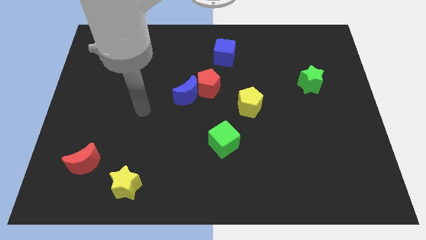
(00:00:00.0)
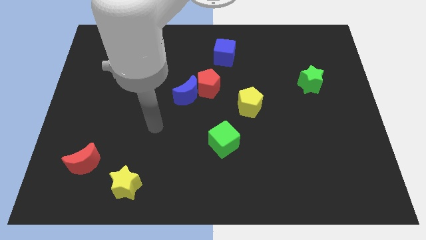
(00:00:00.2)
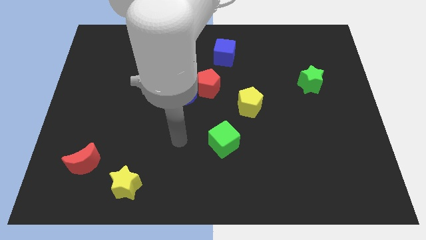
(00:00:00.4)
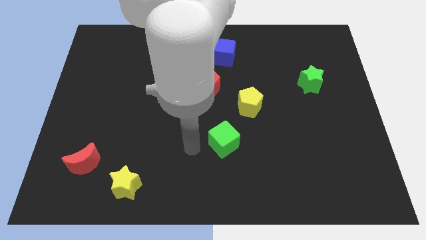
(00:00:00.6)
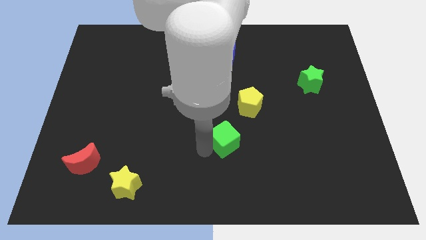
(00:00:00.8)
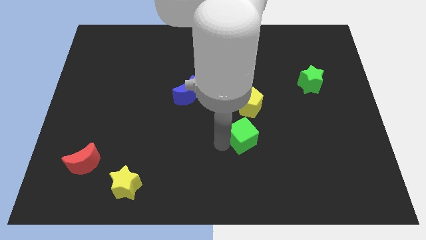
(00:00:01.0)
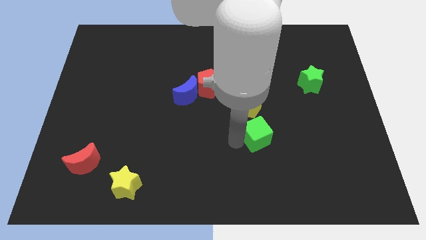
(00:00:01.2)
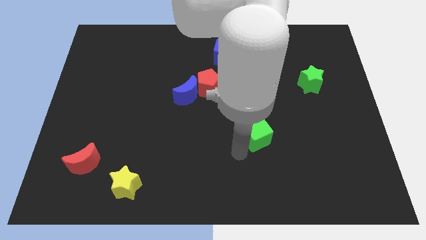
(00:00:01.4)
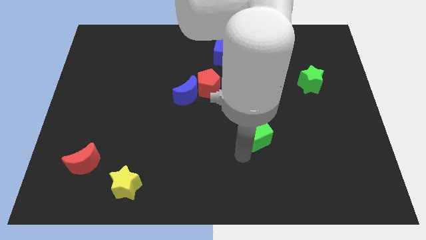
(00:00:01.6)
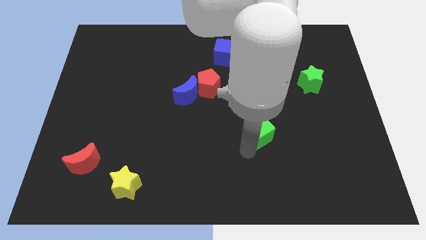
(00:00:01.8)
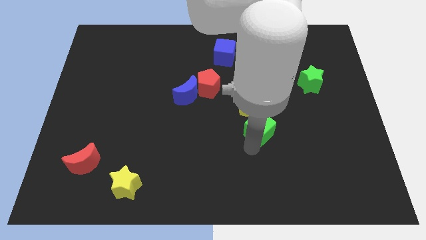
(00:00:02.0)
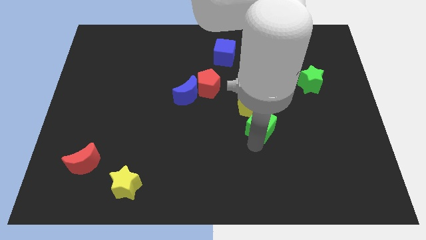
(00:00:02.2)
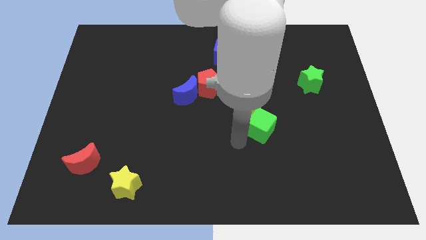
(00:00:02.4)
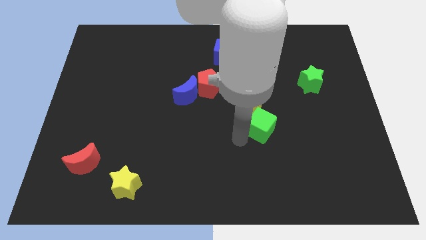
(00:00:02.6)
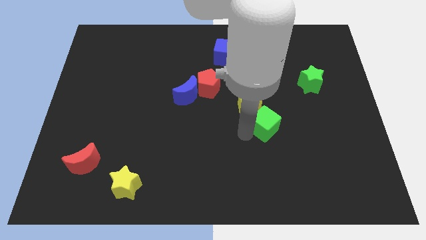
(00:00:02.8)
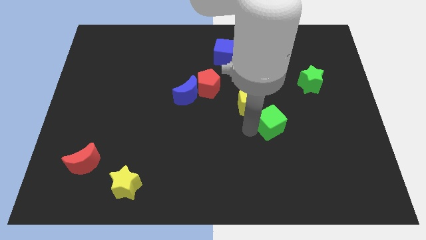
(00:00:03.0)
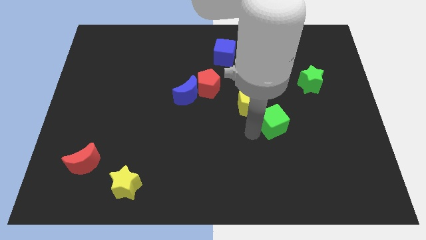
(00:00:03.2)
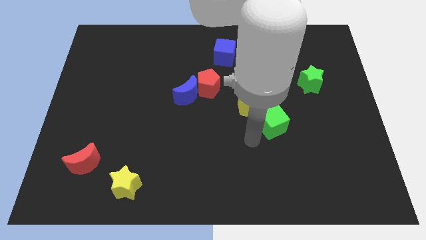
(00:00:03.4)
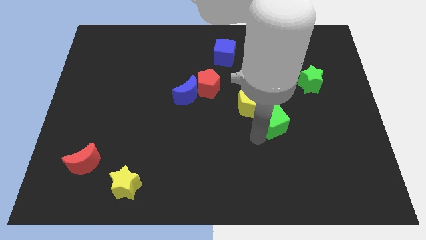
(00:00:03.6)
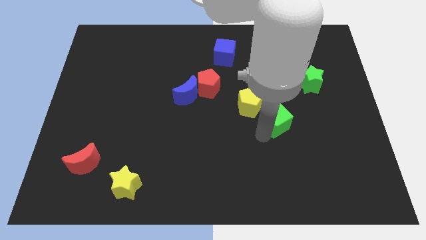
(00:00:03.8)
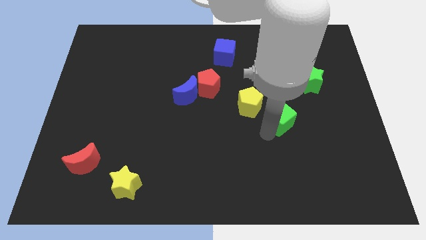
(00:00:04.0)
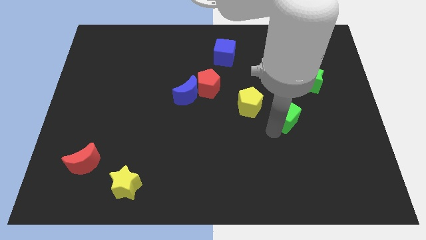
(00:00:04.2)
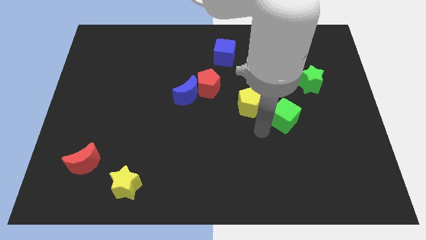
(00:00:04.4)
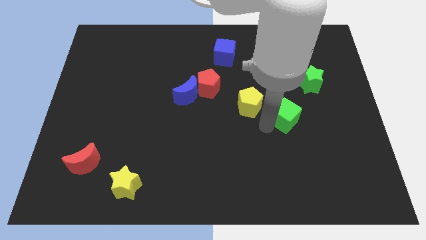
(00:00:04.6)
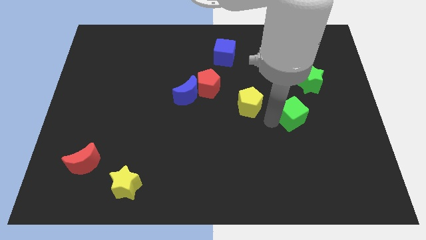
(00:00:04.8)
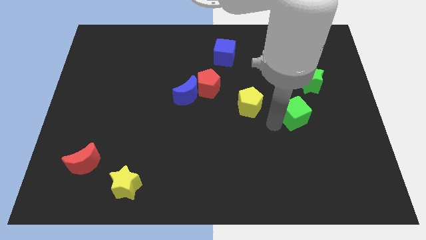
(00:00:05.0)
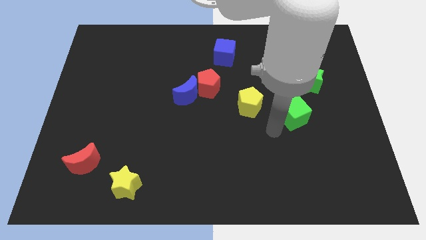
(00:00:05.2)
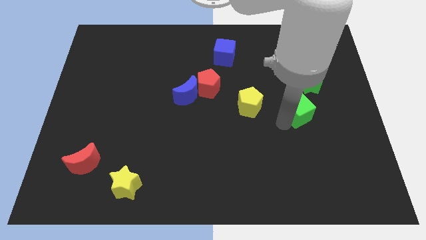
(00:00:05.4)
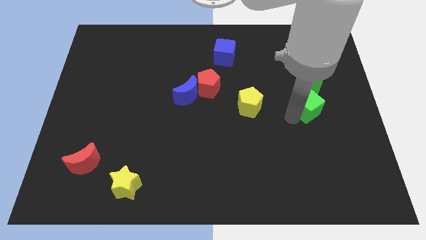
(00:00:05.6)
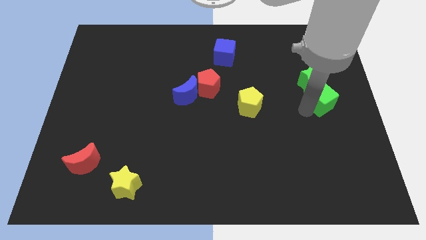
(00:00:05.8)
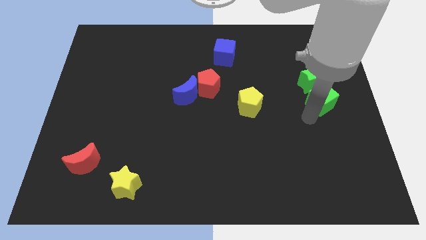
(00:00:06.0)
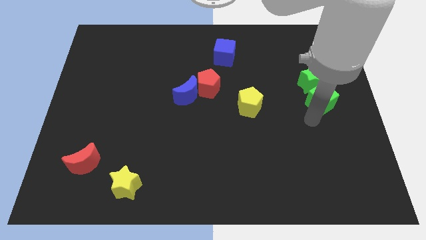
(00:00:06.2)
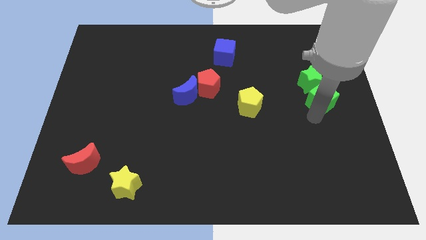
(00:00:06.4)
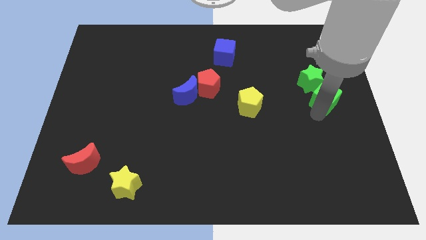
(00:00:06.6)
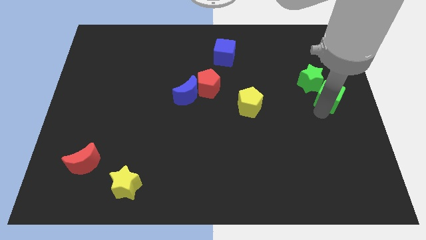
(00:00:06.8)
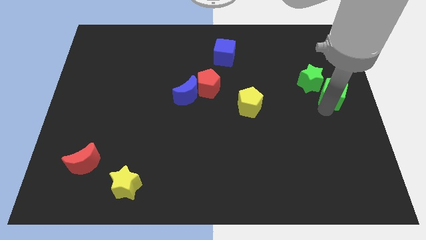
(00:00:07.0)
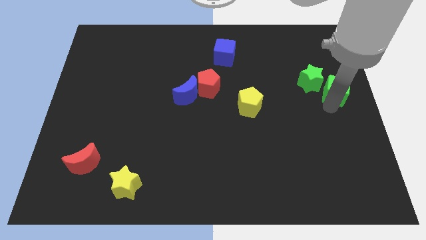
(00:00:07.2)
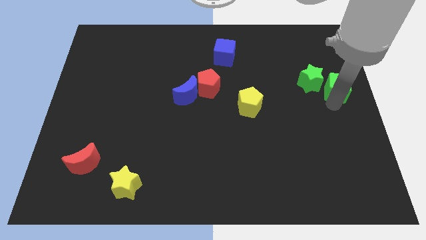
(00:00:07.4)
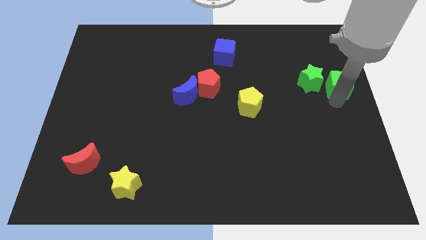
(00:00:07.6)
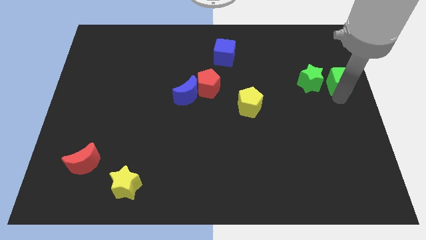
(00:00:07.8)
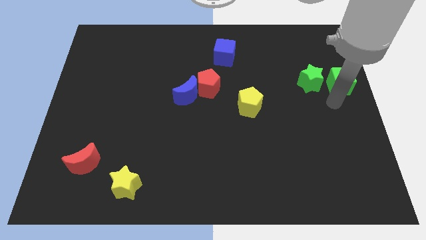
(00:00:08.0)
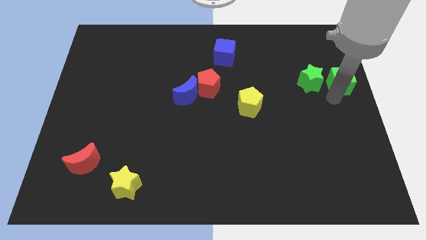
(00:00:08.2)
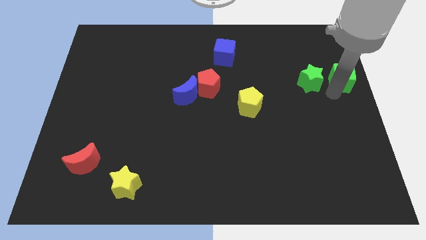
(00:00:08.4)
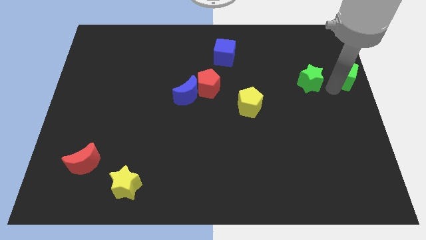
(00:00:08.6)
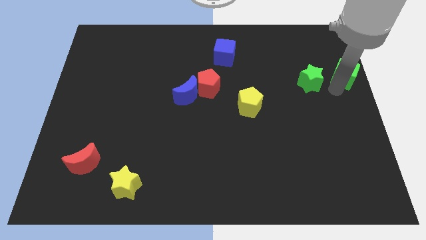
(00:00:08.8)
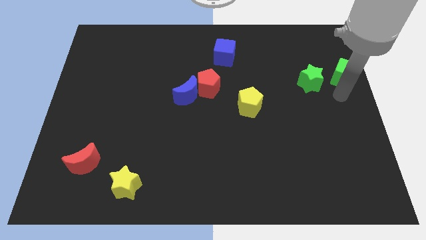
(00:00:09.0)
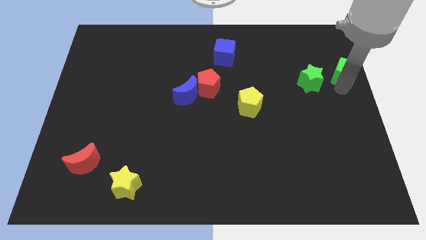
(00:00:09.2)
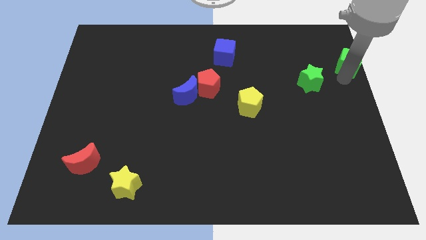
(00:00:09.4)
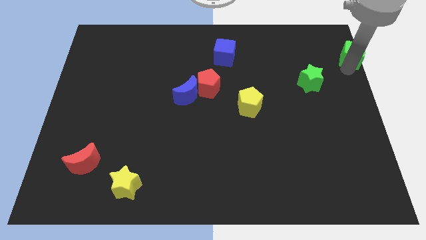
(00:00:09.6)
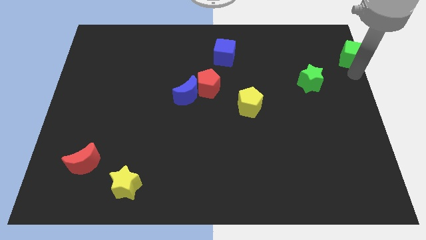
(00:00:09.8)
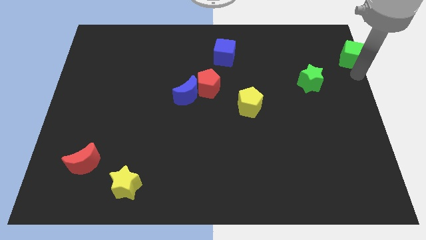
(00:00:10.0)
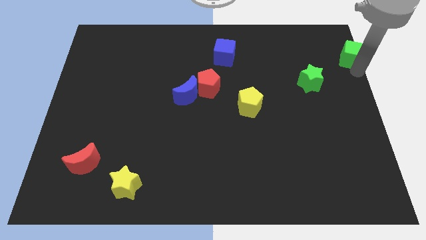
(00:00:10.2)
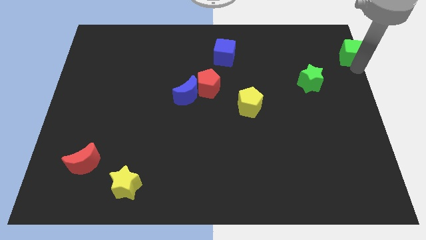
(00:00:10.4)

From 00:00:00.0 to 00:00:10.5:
put the green cube to the top right of the board

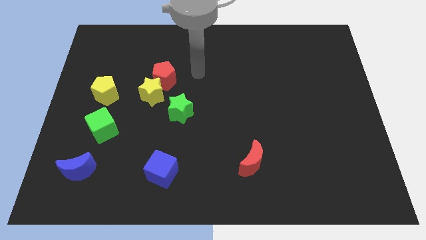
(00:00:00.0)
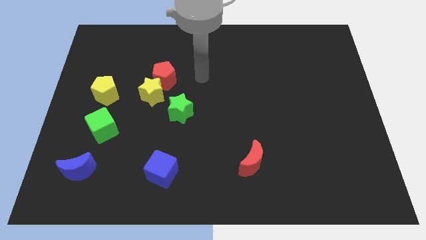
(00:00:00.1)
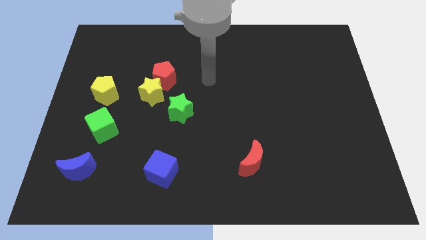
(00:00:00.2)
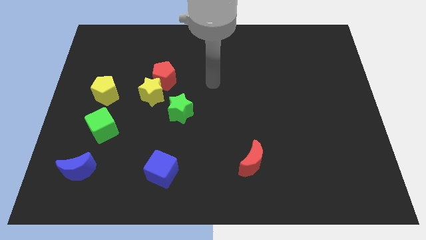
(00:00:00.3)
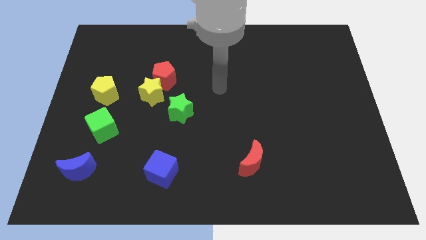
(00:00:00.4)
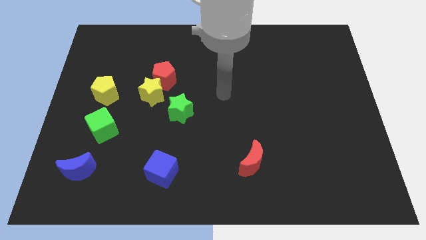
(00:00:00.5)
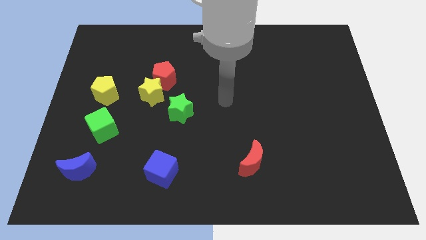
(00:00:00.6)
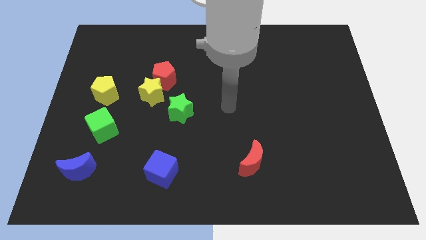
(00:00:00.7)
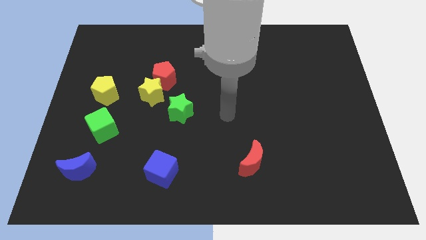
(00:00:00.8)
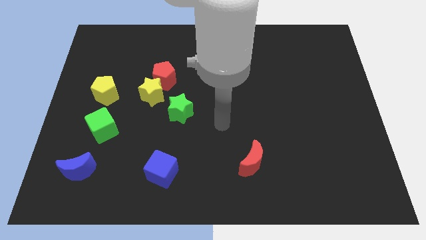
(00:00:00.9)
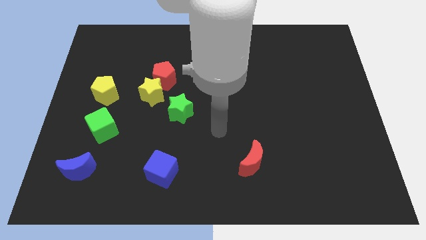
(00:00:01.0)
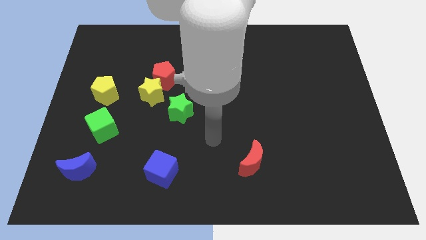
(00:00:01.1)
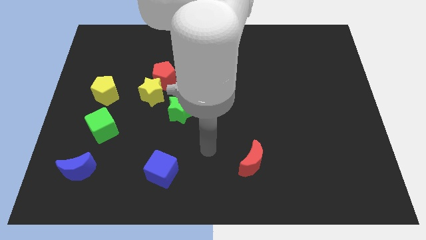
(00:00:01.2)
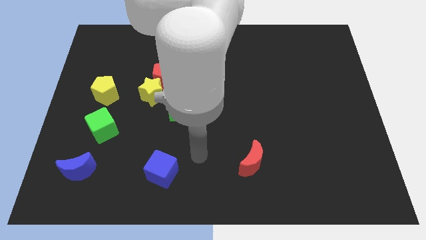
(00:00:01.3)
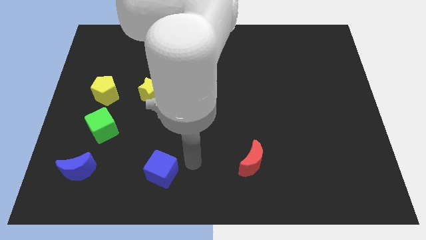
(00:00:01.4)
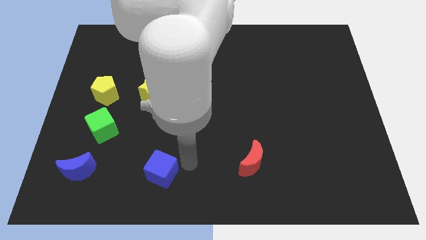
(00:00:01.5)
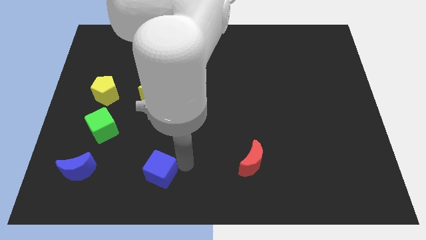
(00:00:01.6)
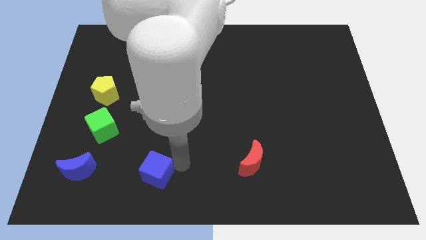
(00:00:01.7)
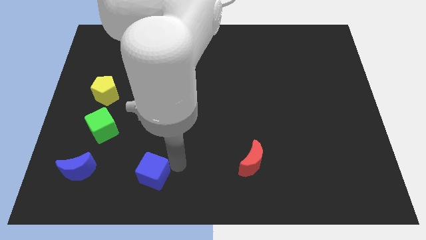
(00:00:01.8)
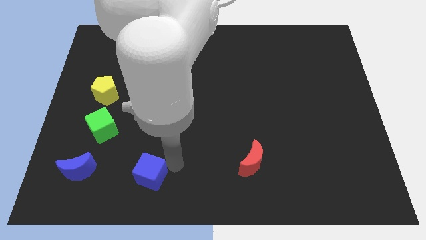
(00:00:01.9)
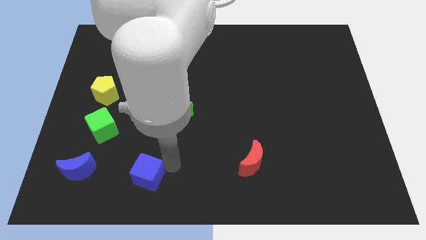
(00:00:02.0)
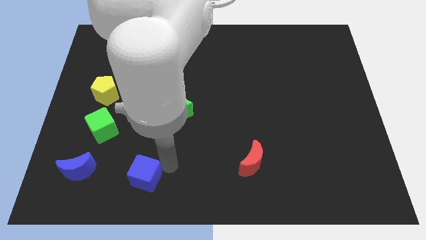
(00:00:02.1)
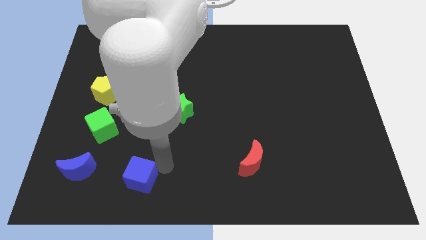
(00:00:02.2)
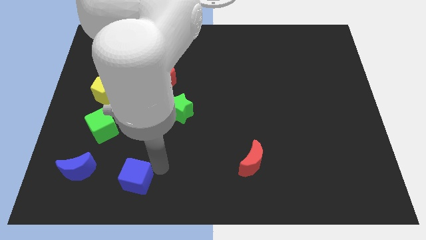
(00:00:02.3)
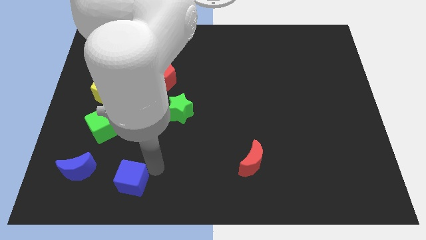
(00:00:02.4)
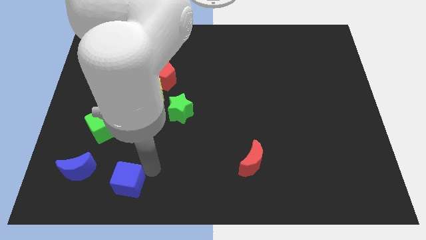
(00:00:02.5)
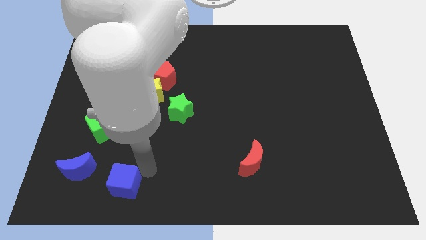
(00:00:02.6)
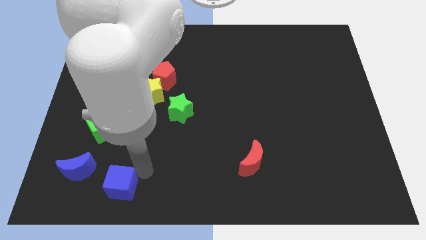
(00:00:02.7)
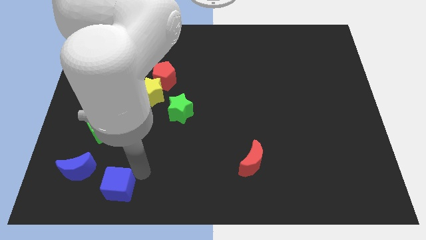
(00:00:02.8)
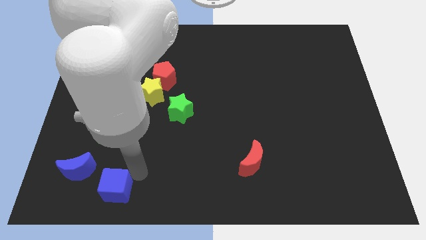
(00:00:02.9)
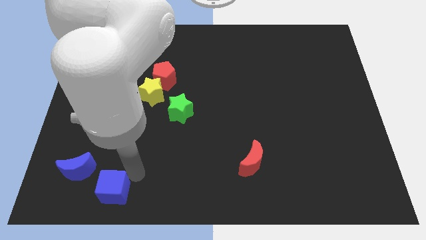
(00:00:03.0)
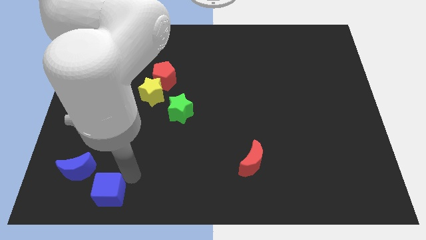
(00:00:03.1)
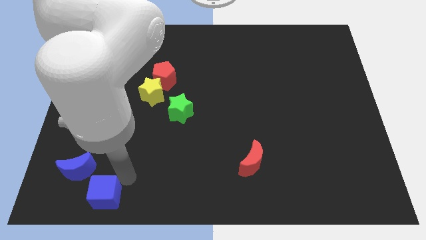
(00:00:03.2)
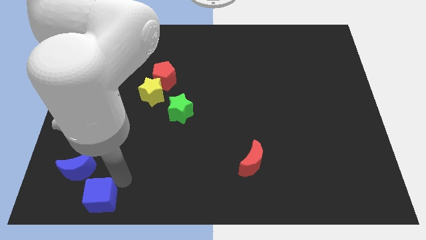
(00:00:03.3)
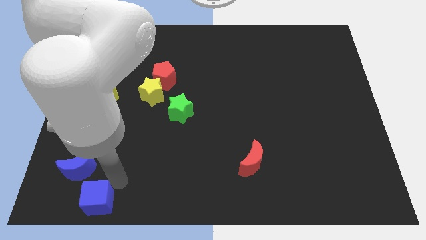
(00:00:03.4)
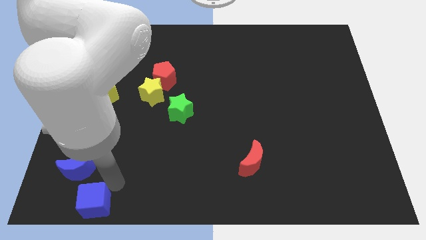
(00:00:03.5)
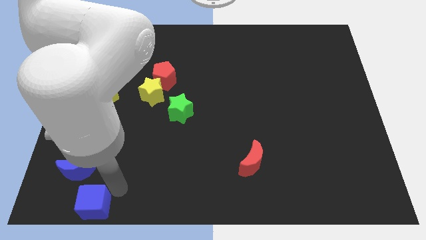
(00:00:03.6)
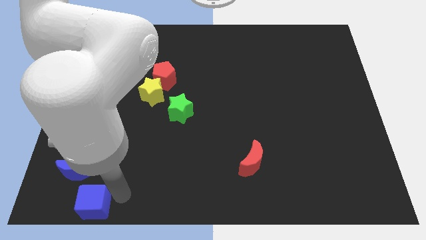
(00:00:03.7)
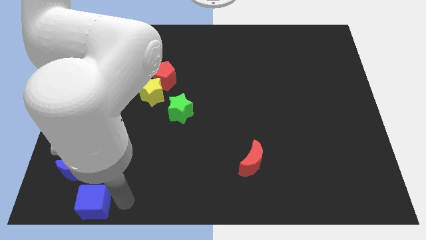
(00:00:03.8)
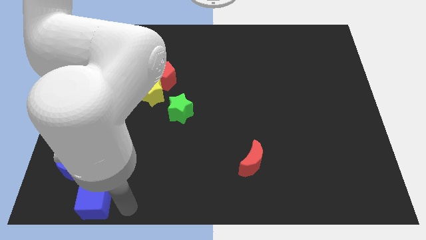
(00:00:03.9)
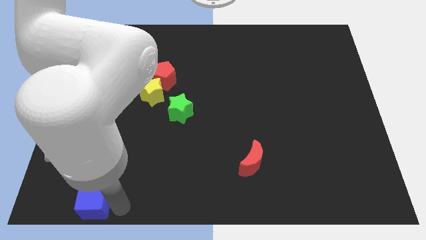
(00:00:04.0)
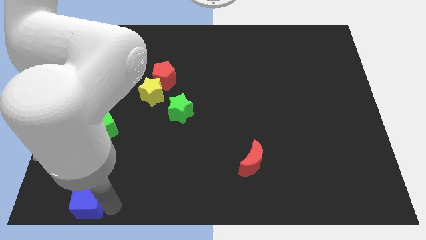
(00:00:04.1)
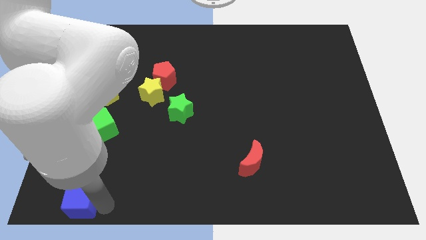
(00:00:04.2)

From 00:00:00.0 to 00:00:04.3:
push the blue cube to the bottom left
